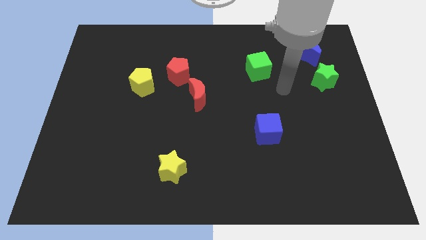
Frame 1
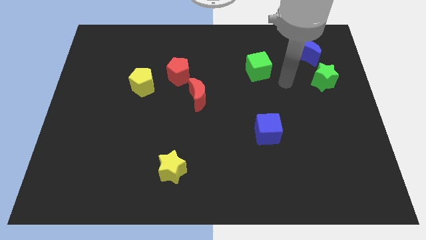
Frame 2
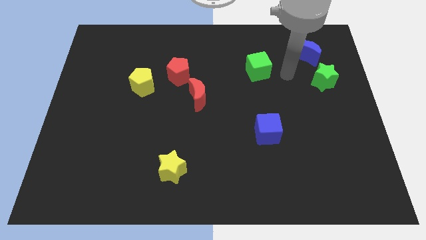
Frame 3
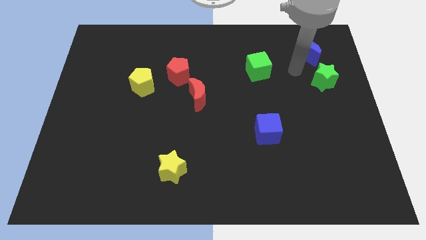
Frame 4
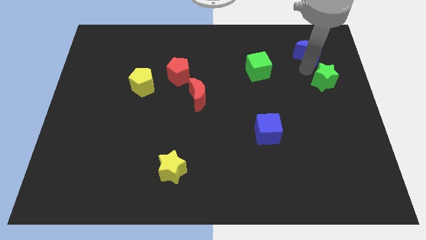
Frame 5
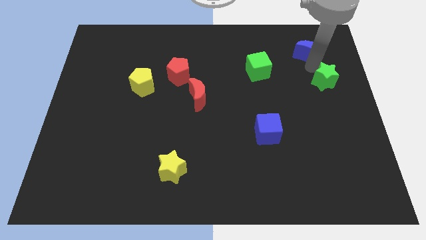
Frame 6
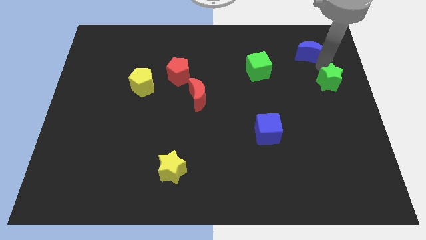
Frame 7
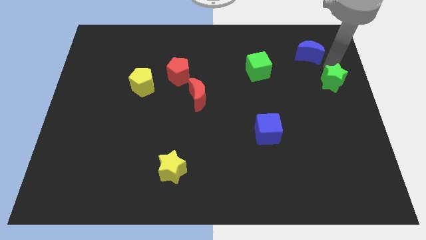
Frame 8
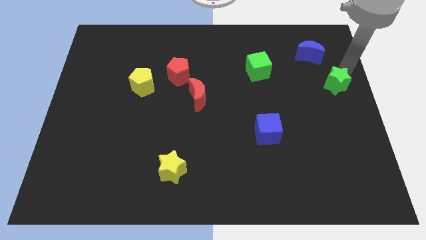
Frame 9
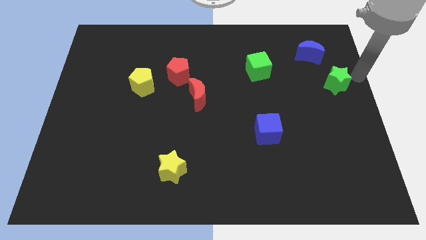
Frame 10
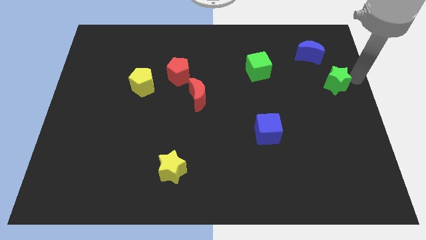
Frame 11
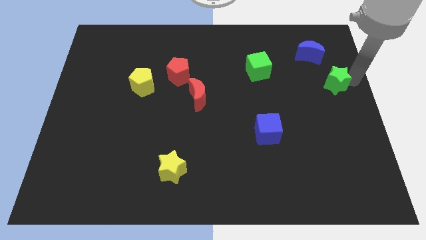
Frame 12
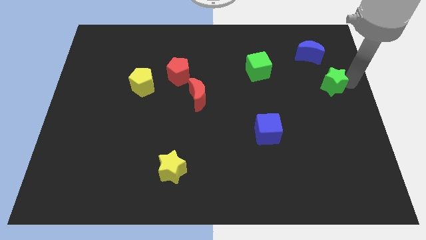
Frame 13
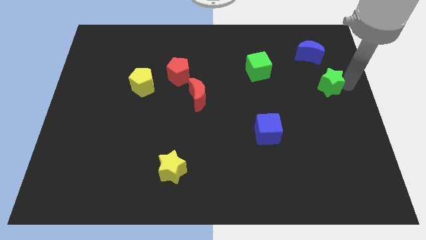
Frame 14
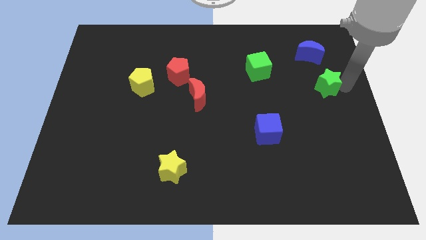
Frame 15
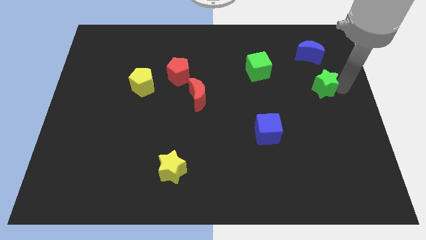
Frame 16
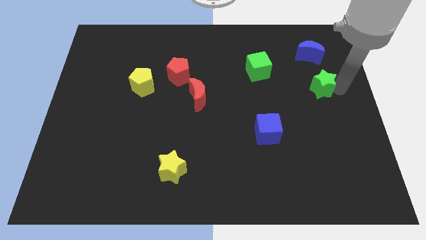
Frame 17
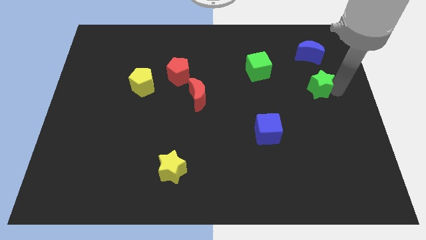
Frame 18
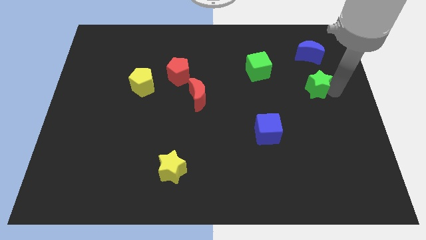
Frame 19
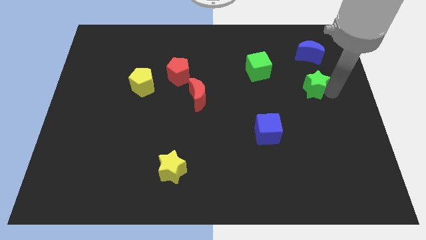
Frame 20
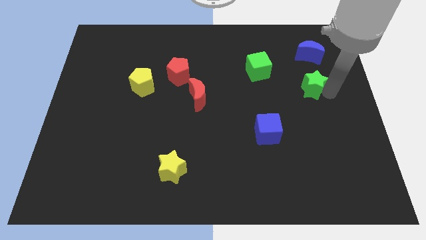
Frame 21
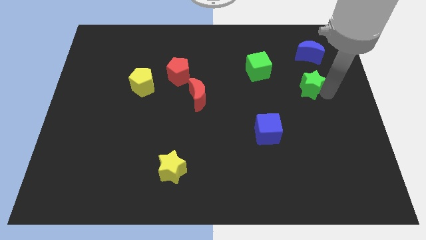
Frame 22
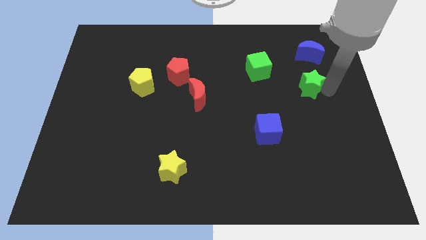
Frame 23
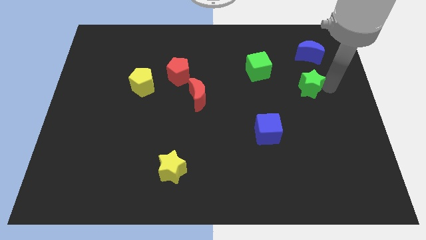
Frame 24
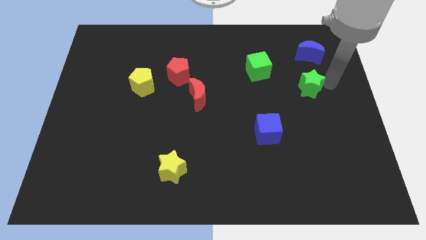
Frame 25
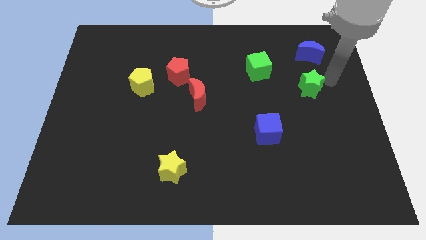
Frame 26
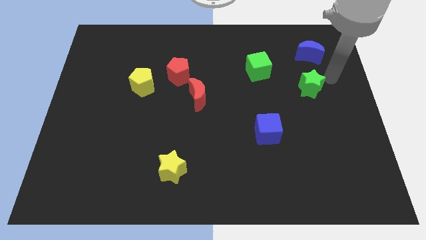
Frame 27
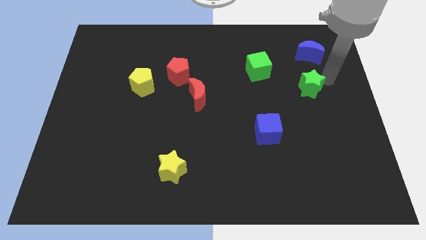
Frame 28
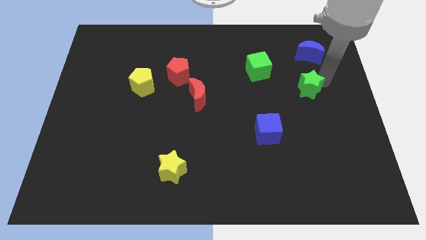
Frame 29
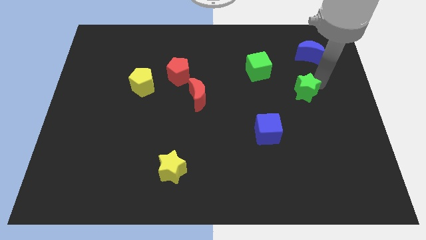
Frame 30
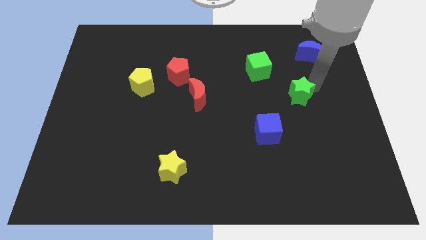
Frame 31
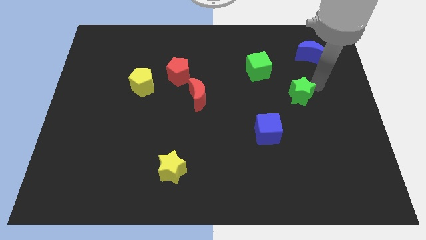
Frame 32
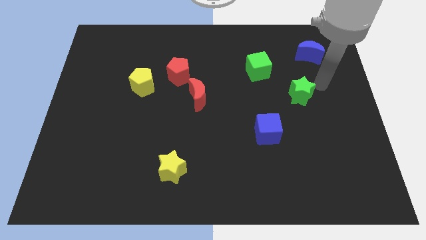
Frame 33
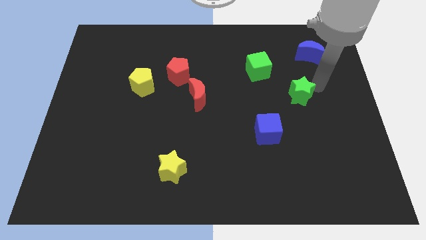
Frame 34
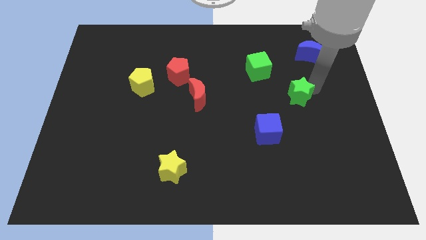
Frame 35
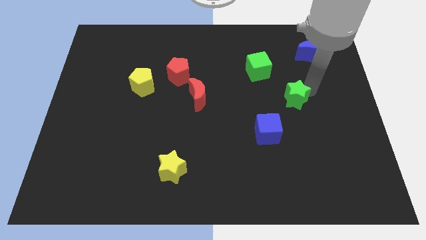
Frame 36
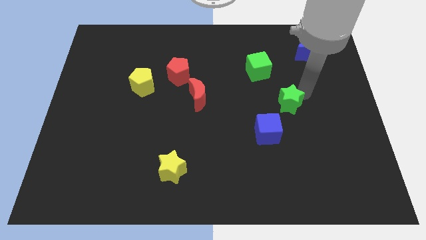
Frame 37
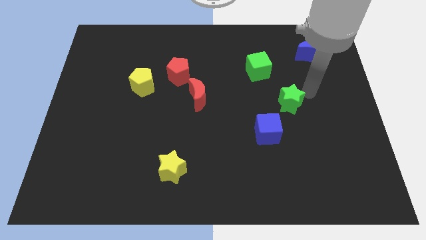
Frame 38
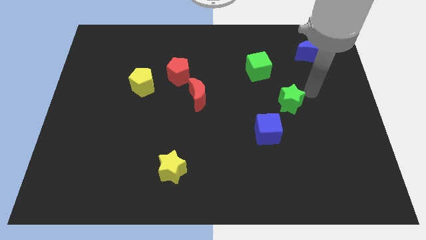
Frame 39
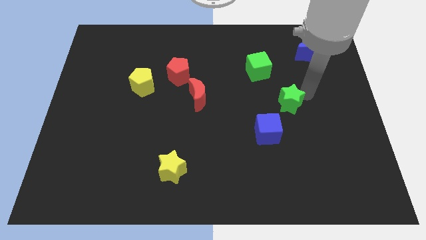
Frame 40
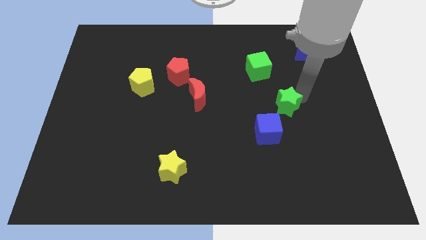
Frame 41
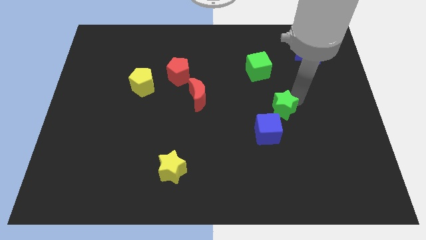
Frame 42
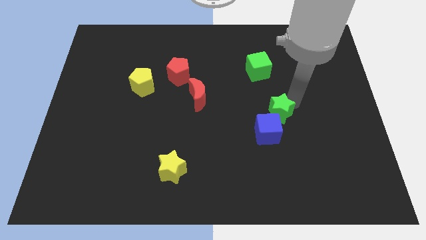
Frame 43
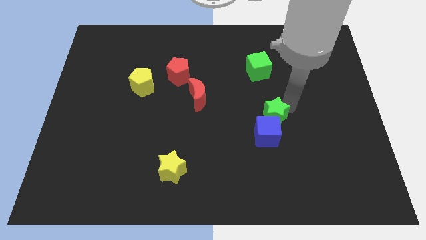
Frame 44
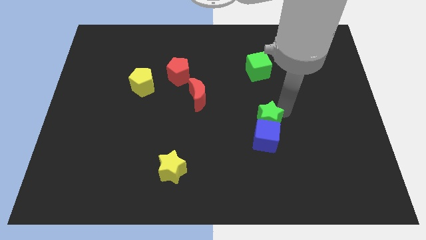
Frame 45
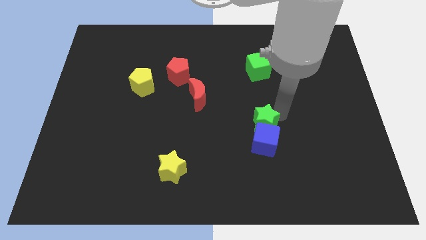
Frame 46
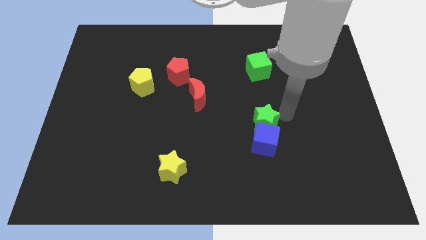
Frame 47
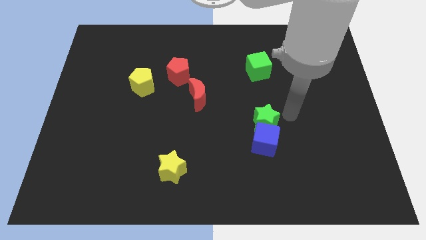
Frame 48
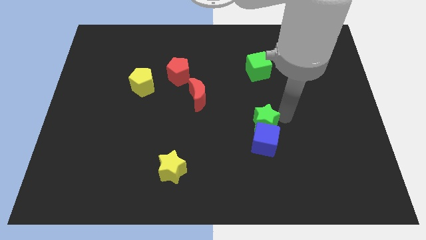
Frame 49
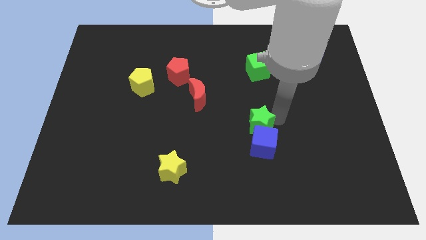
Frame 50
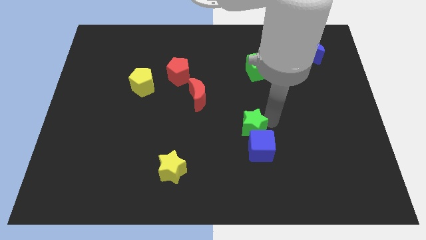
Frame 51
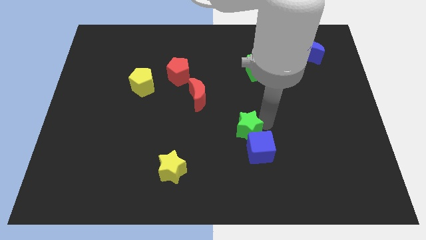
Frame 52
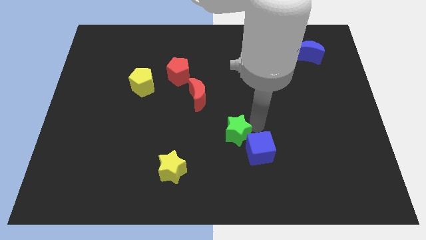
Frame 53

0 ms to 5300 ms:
push the green star left of the blue cube

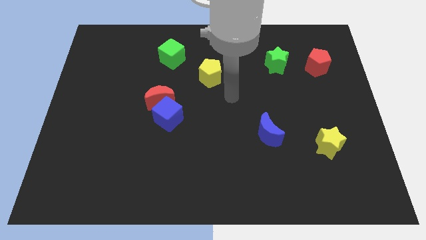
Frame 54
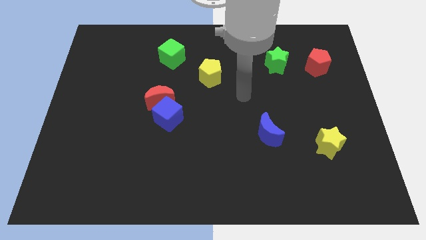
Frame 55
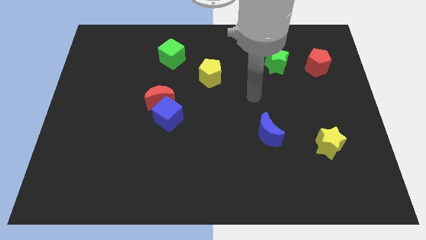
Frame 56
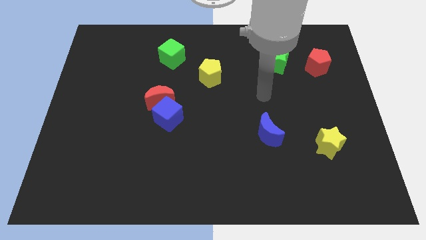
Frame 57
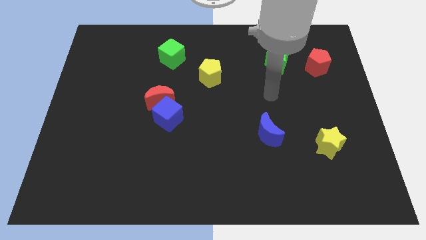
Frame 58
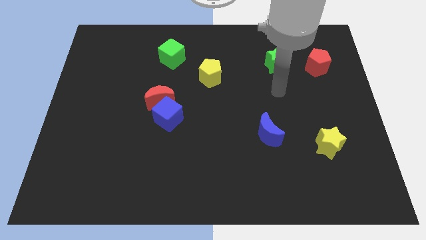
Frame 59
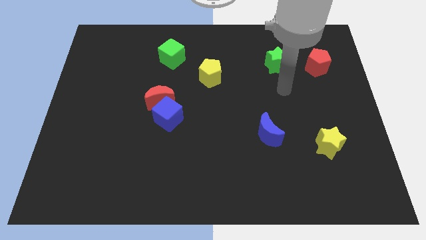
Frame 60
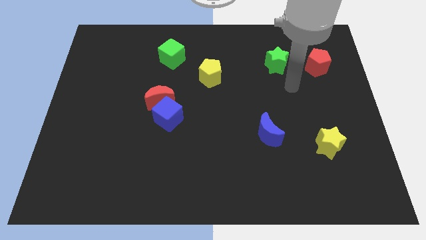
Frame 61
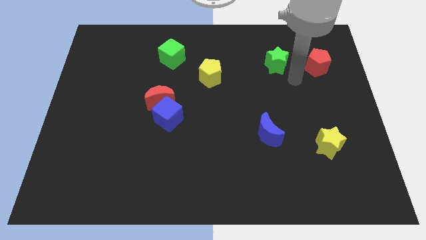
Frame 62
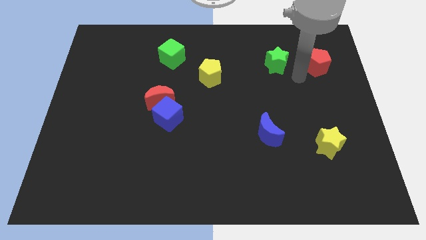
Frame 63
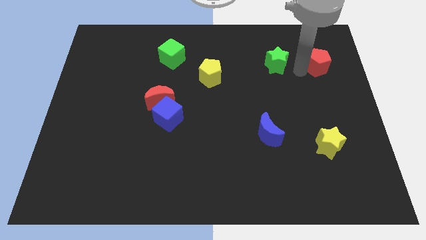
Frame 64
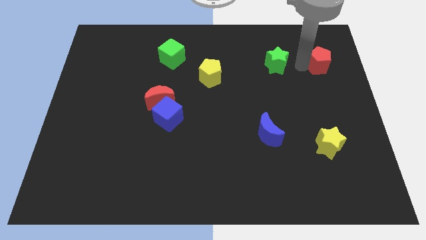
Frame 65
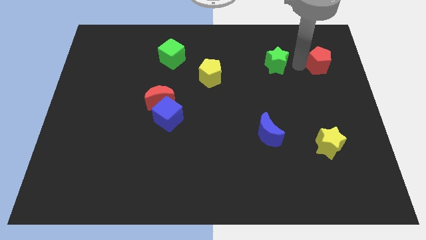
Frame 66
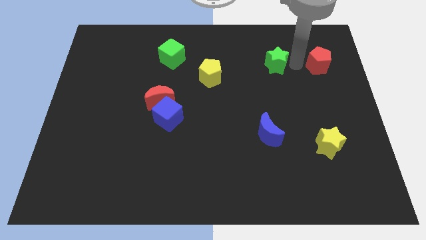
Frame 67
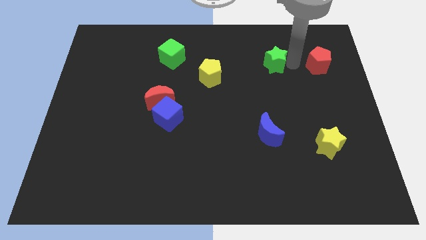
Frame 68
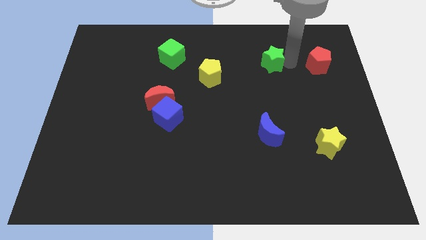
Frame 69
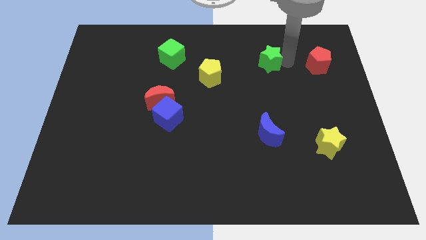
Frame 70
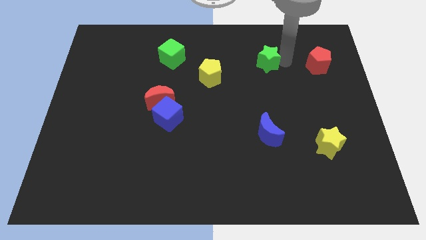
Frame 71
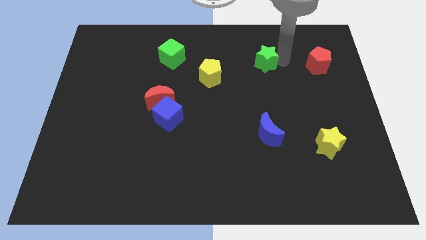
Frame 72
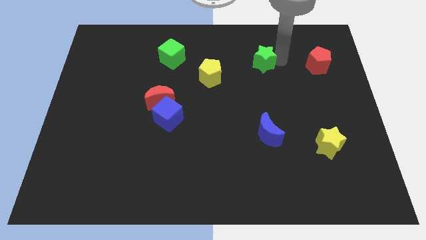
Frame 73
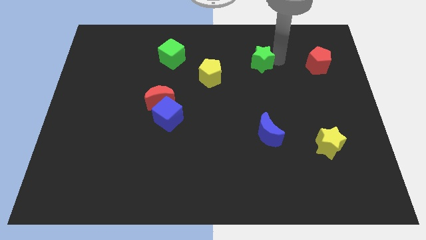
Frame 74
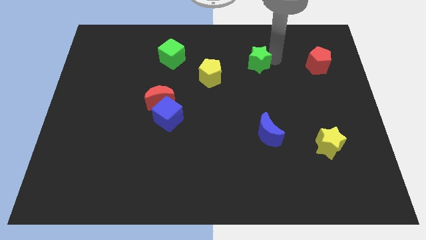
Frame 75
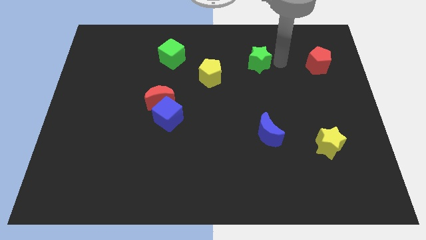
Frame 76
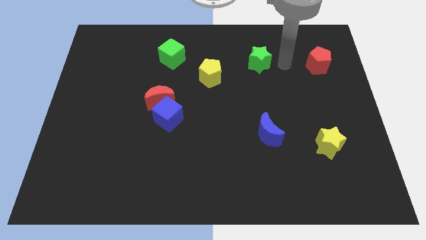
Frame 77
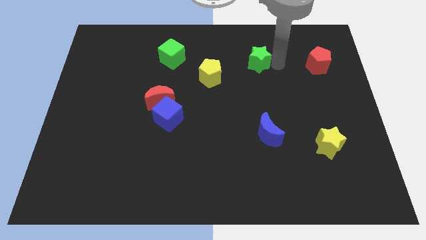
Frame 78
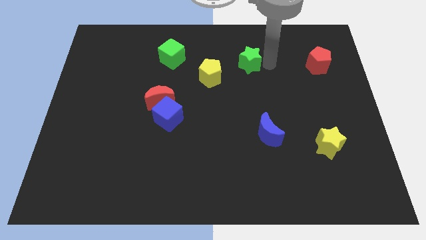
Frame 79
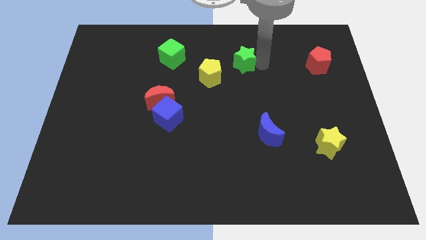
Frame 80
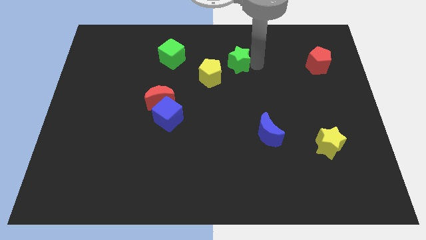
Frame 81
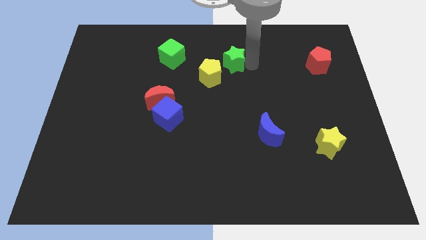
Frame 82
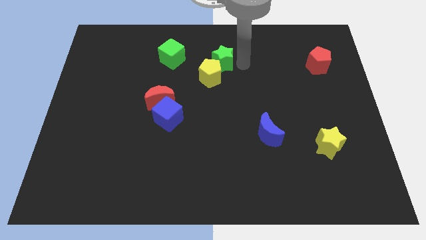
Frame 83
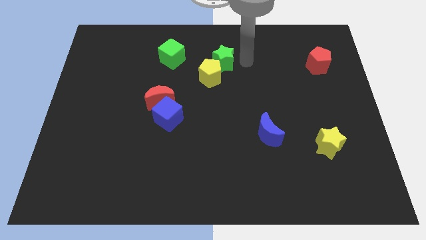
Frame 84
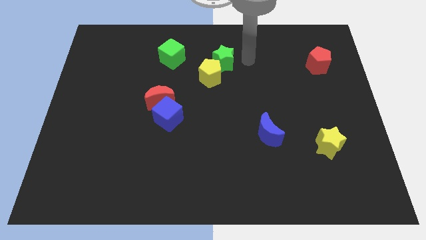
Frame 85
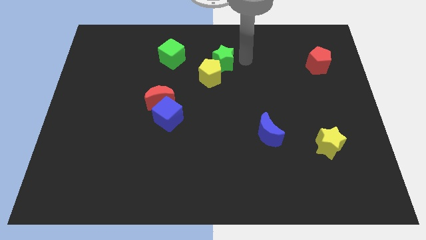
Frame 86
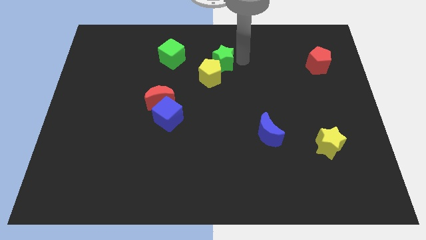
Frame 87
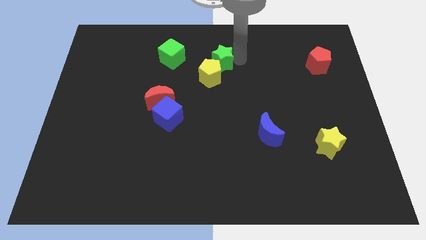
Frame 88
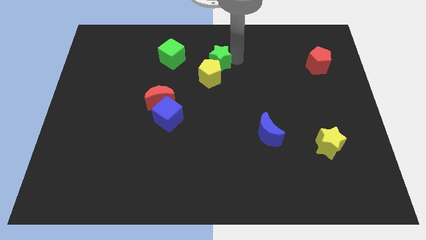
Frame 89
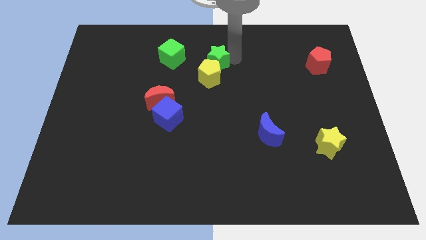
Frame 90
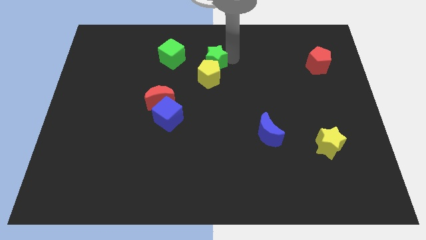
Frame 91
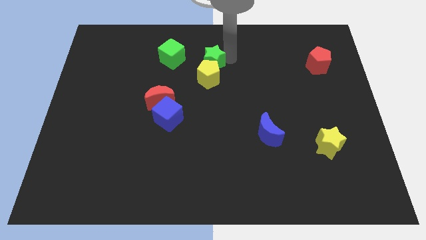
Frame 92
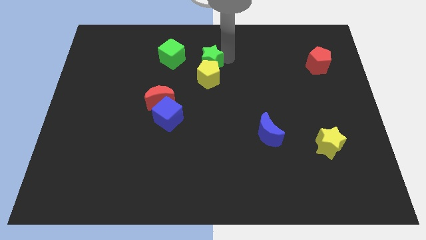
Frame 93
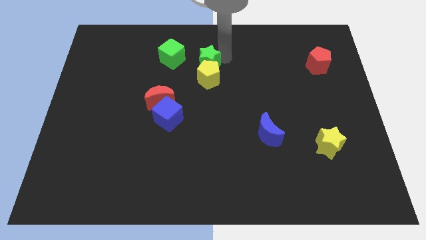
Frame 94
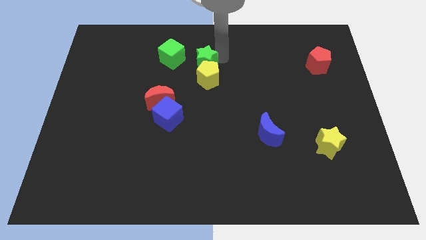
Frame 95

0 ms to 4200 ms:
slide the green star to the bottom right side of the green cube
